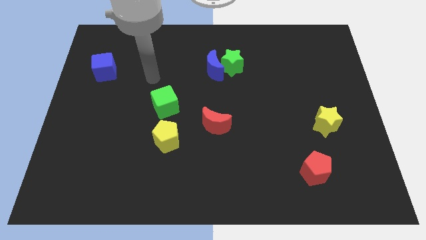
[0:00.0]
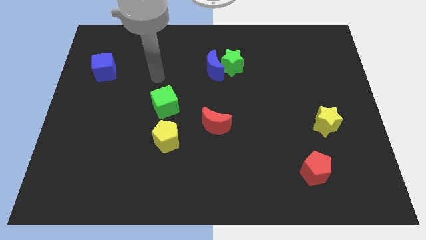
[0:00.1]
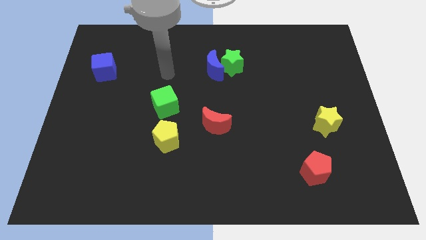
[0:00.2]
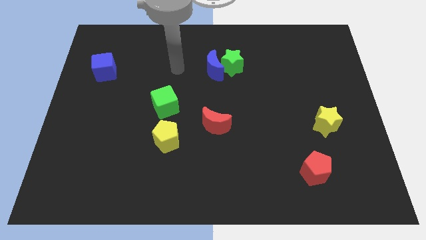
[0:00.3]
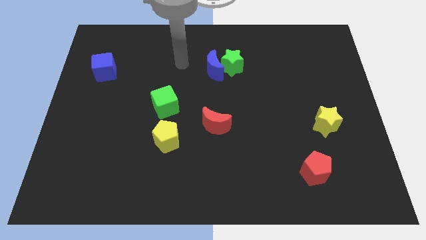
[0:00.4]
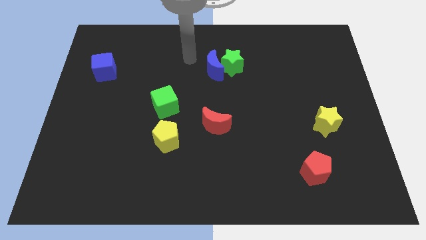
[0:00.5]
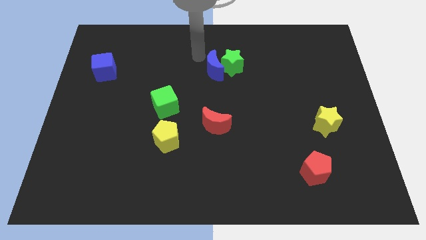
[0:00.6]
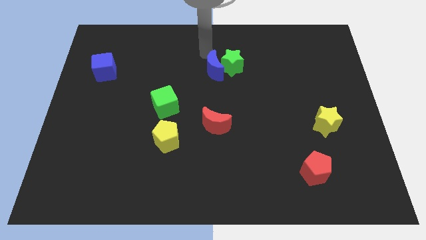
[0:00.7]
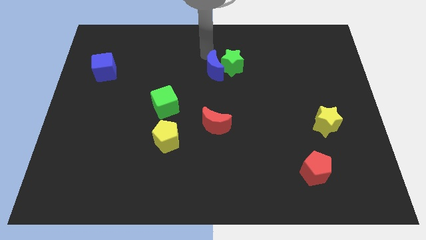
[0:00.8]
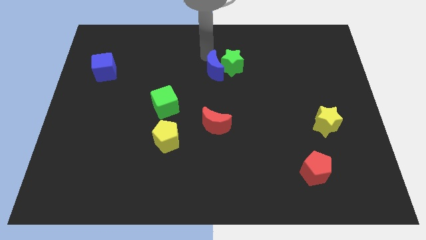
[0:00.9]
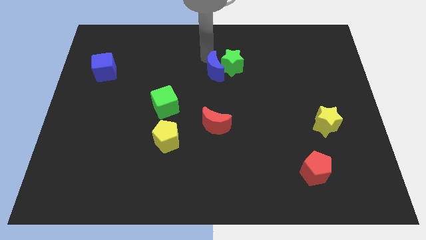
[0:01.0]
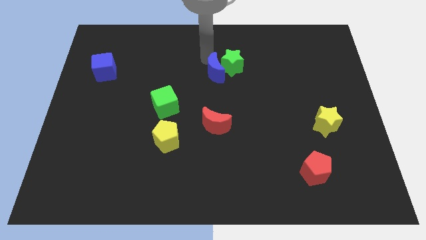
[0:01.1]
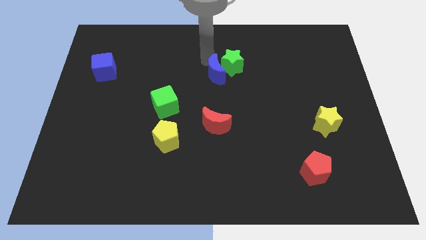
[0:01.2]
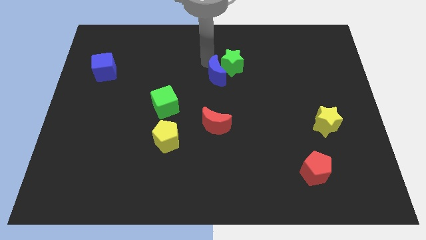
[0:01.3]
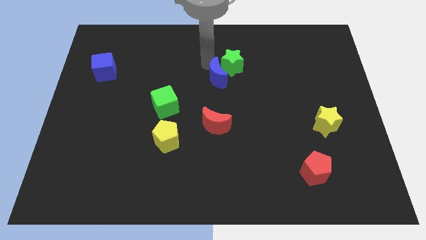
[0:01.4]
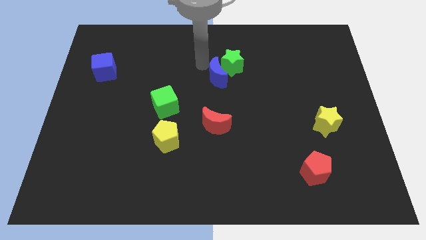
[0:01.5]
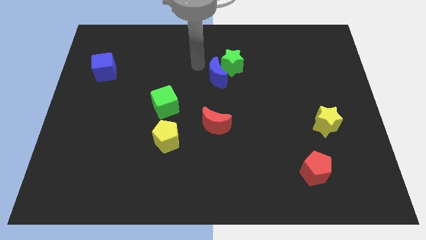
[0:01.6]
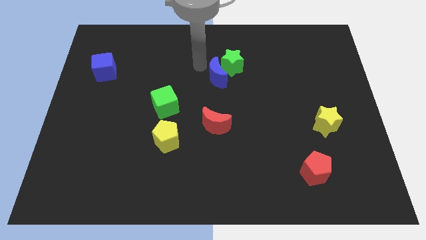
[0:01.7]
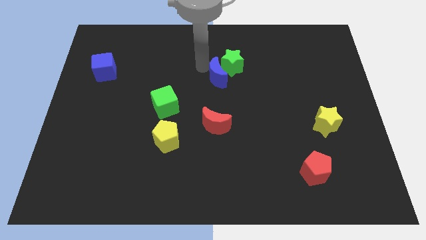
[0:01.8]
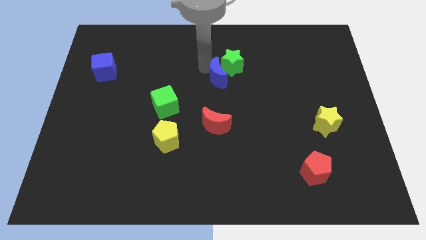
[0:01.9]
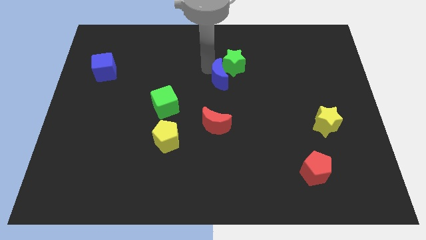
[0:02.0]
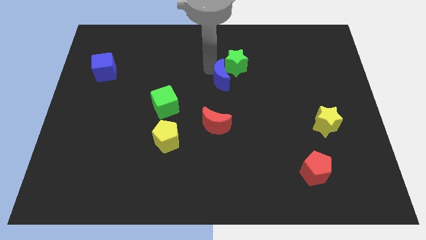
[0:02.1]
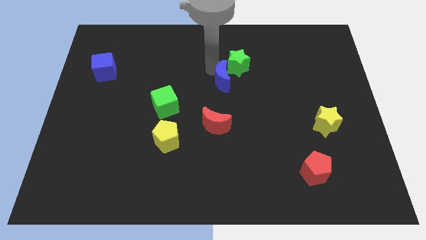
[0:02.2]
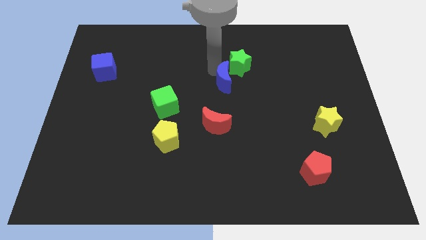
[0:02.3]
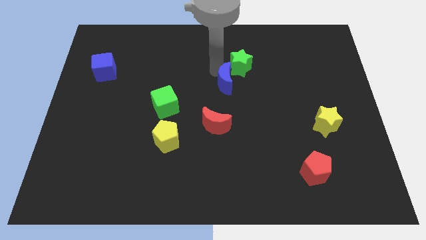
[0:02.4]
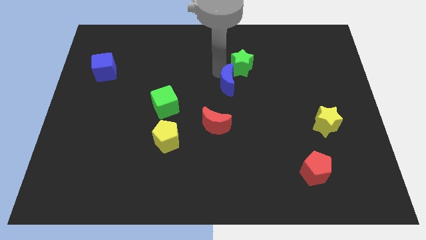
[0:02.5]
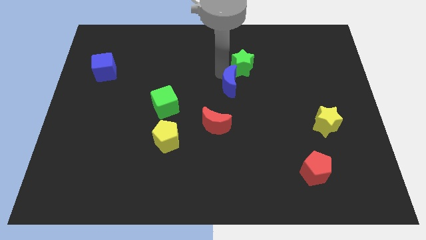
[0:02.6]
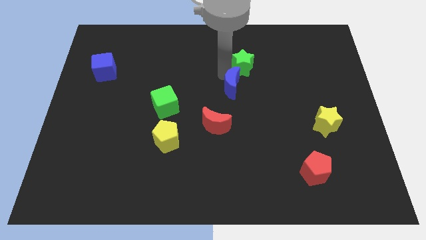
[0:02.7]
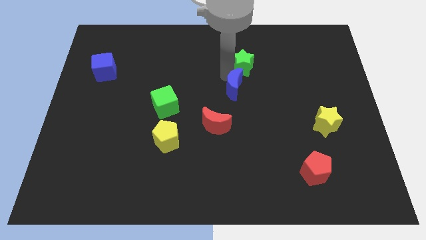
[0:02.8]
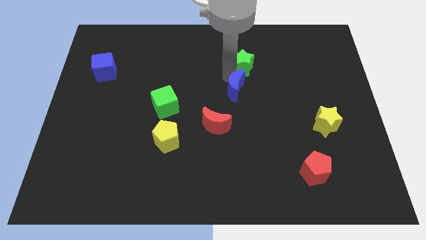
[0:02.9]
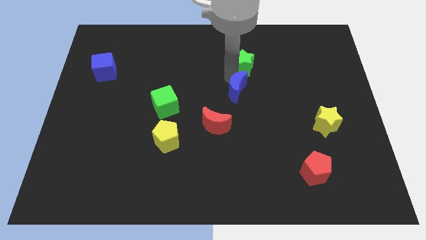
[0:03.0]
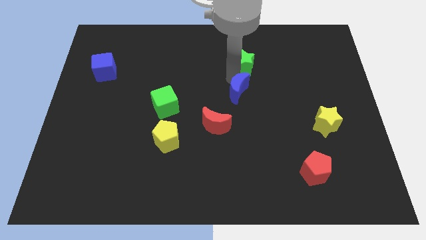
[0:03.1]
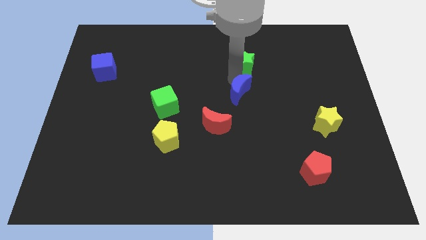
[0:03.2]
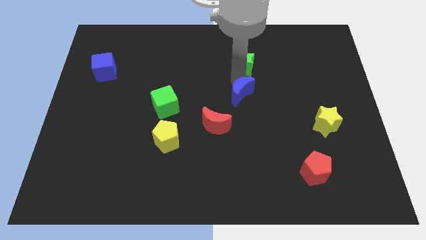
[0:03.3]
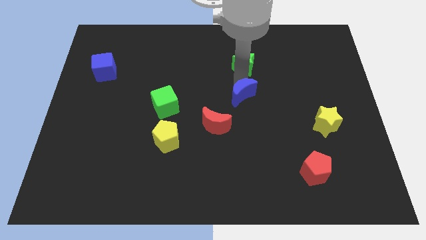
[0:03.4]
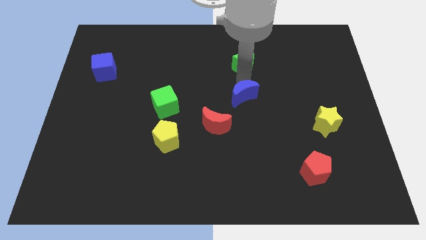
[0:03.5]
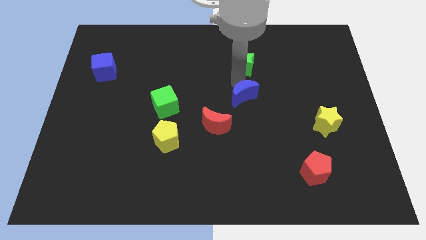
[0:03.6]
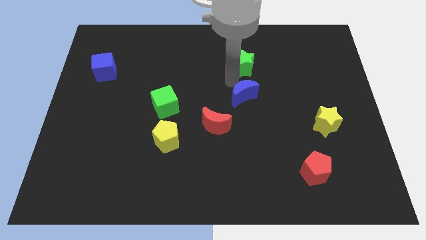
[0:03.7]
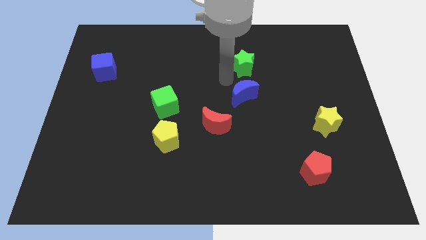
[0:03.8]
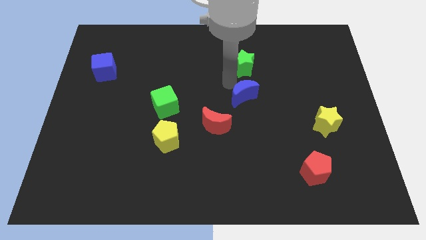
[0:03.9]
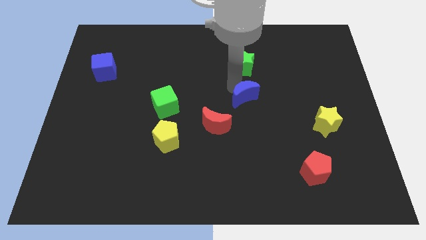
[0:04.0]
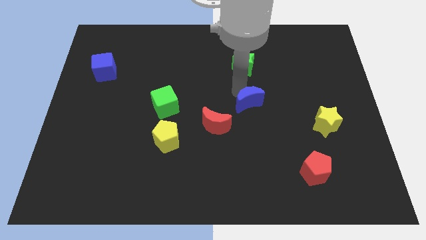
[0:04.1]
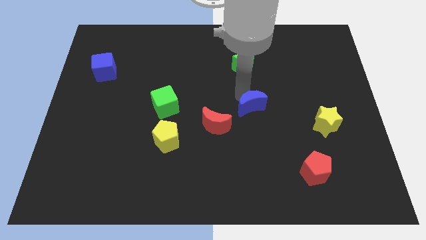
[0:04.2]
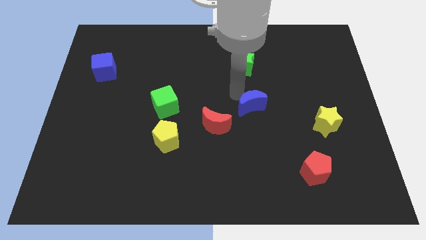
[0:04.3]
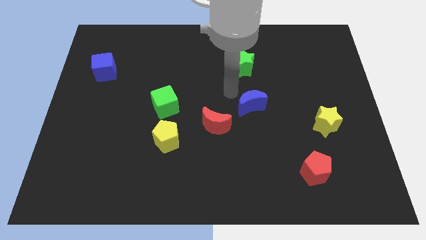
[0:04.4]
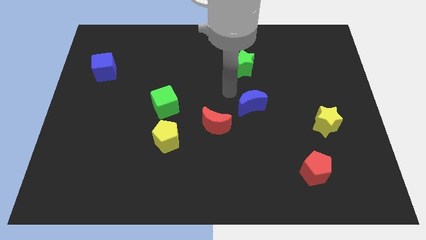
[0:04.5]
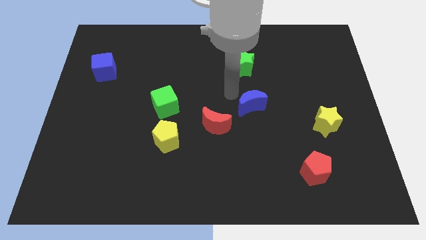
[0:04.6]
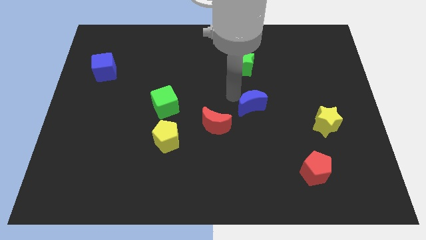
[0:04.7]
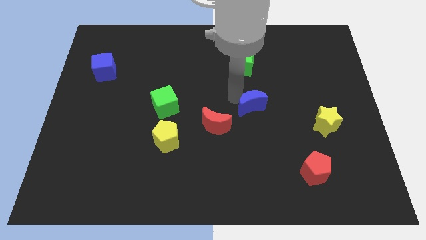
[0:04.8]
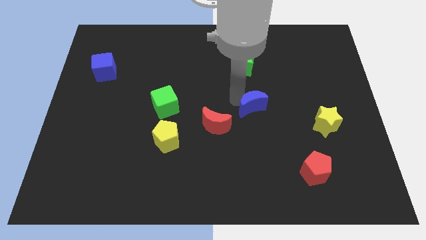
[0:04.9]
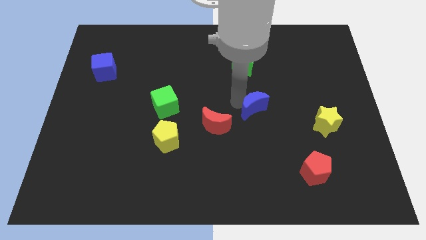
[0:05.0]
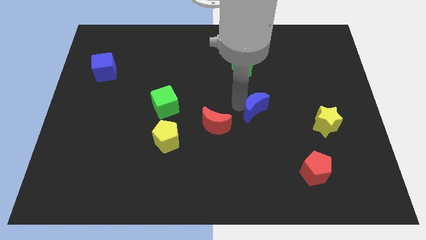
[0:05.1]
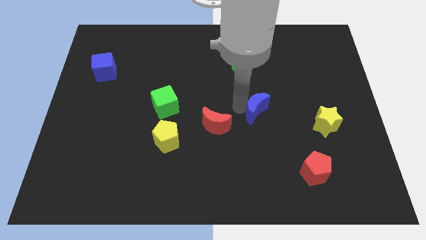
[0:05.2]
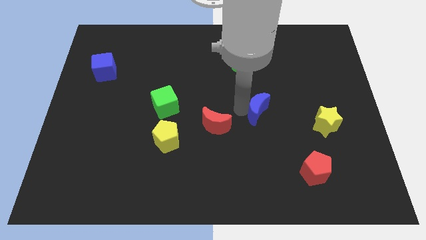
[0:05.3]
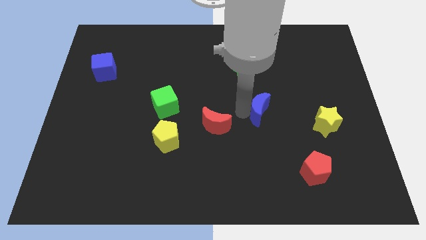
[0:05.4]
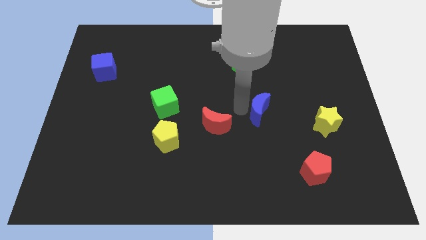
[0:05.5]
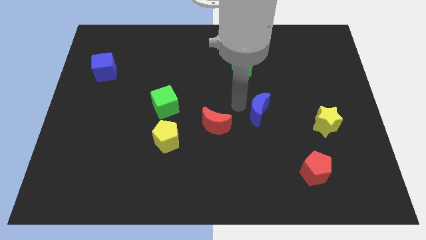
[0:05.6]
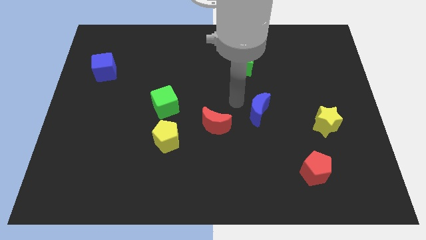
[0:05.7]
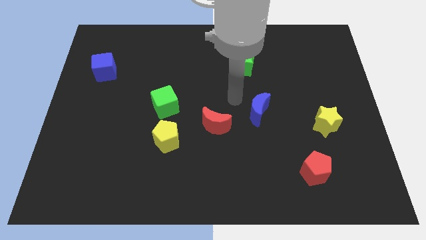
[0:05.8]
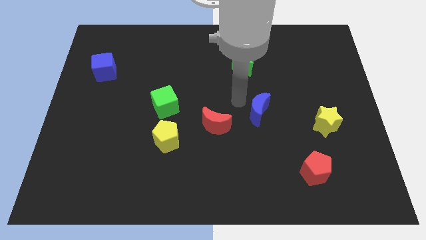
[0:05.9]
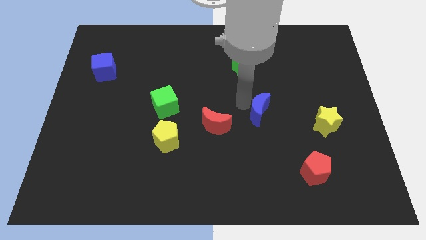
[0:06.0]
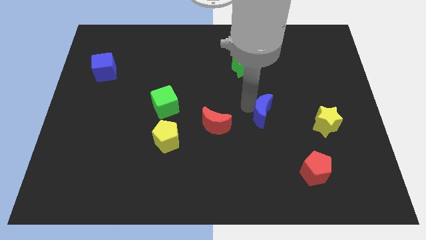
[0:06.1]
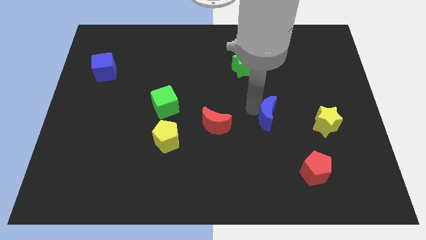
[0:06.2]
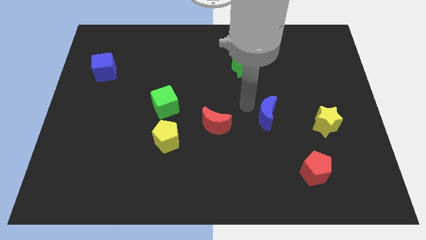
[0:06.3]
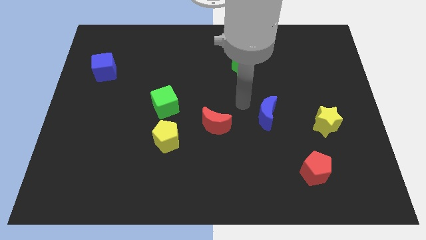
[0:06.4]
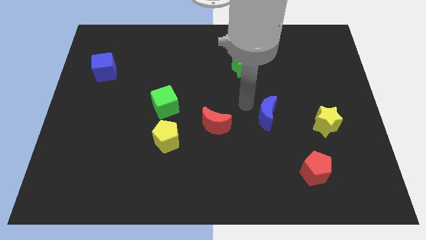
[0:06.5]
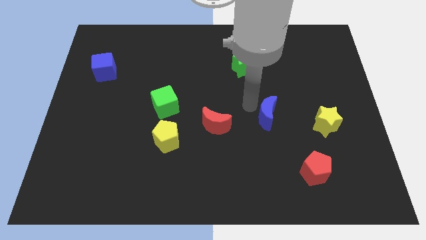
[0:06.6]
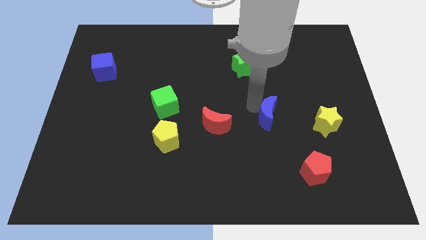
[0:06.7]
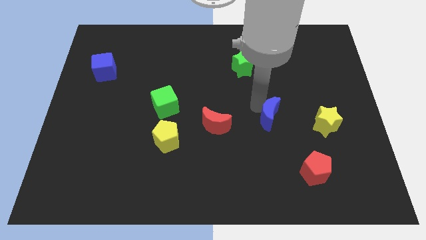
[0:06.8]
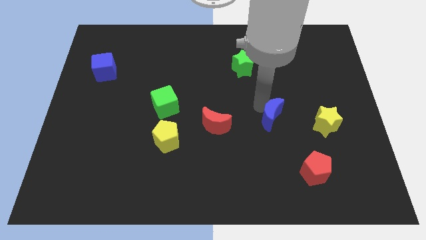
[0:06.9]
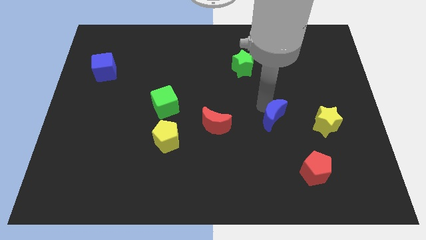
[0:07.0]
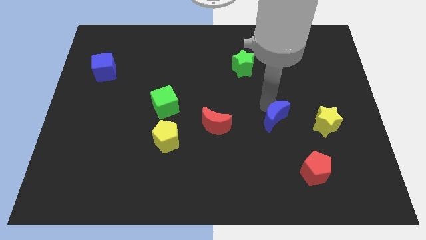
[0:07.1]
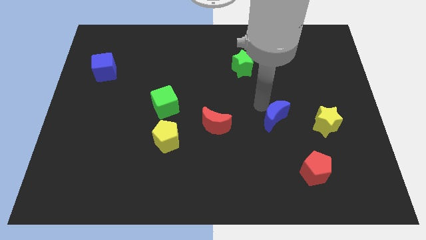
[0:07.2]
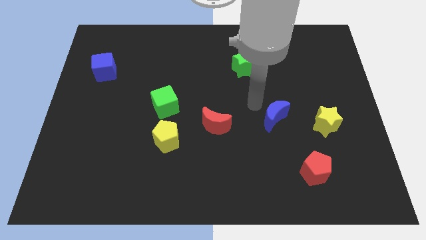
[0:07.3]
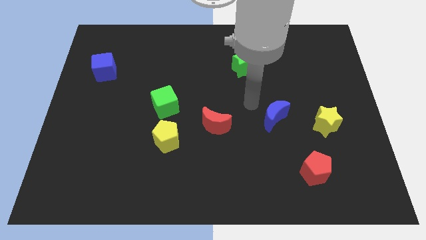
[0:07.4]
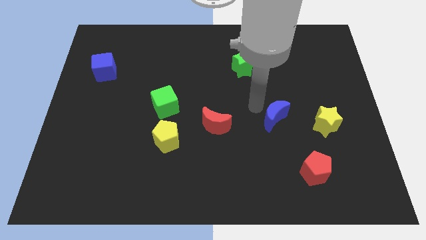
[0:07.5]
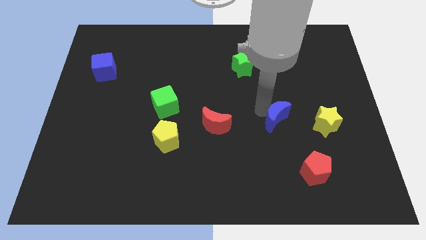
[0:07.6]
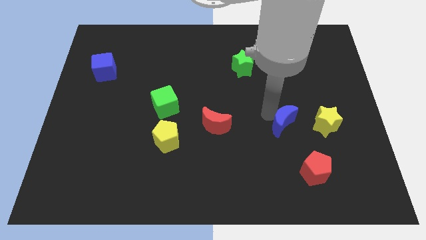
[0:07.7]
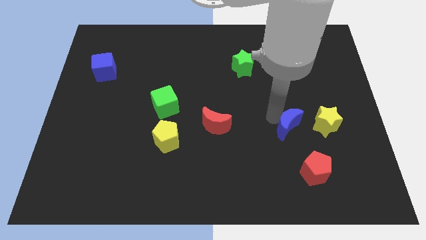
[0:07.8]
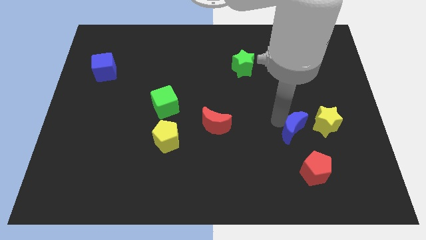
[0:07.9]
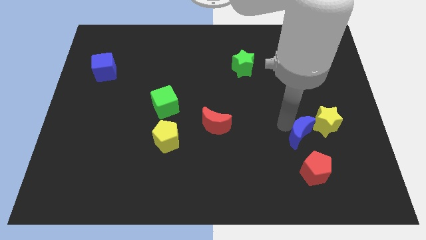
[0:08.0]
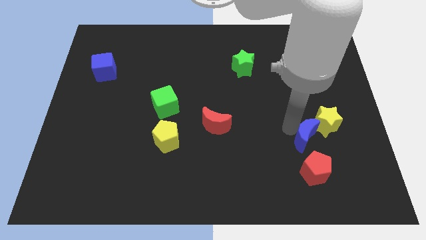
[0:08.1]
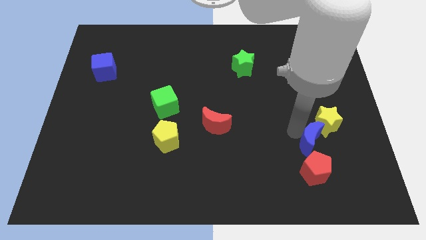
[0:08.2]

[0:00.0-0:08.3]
slide the blue moon to the bottom of the yellow star
